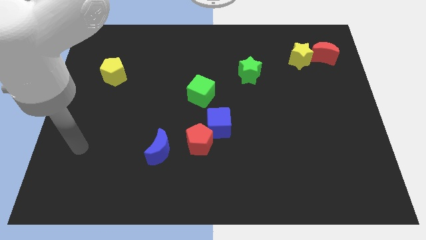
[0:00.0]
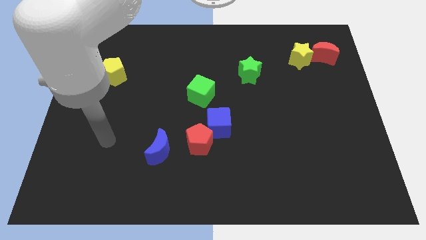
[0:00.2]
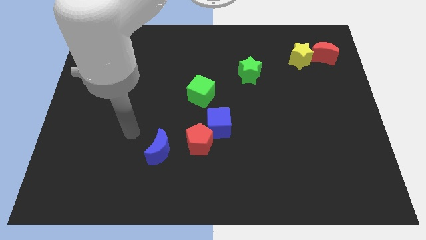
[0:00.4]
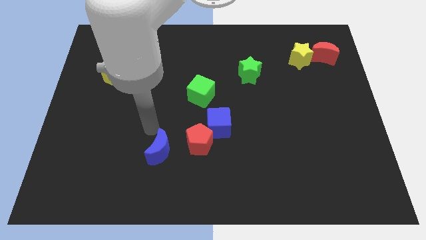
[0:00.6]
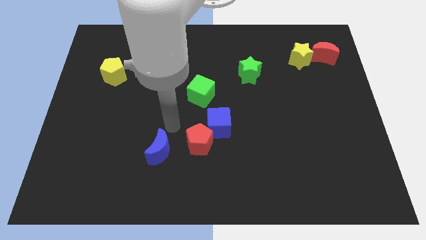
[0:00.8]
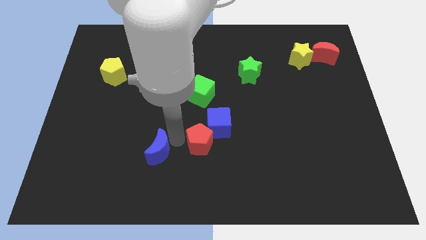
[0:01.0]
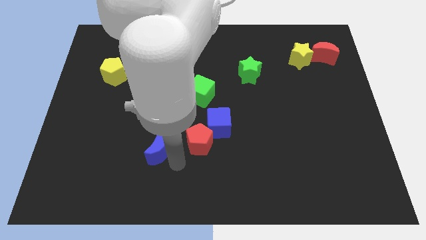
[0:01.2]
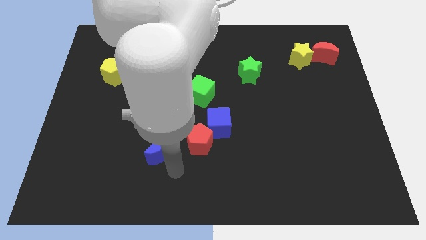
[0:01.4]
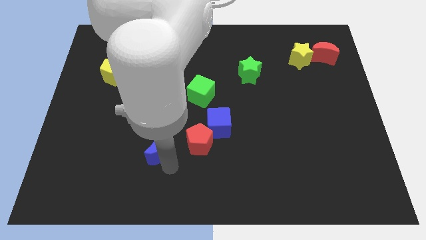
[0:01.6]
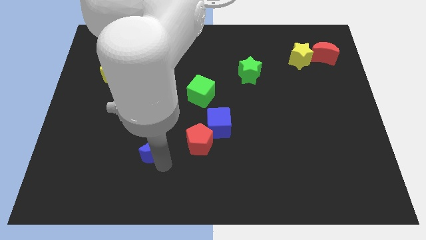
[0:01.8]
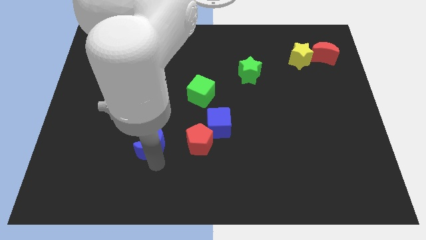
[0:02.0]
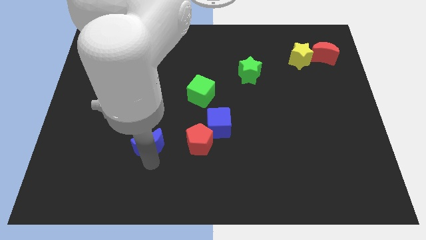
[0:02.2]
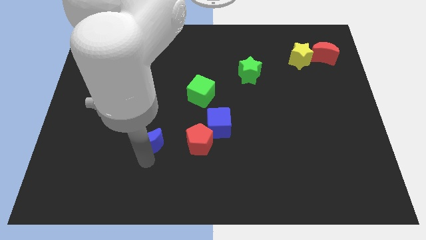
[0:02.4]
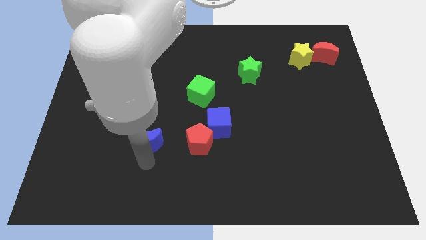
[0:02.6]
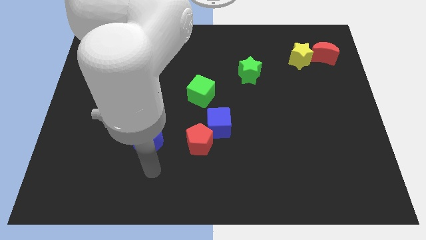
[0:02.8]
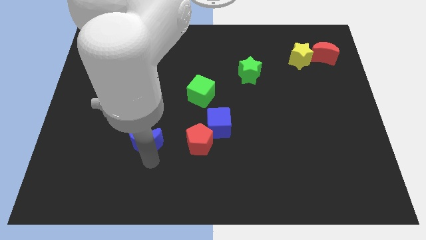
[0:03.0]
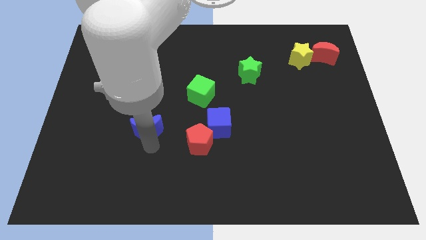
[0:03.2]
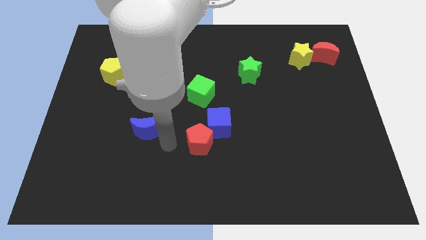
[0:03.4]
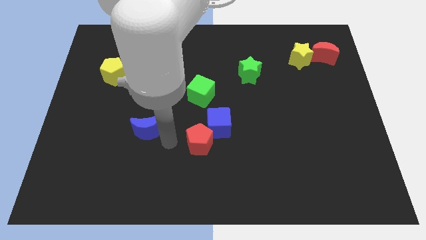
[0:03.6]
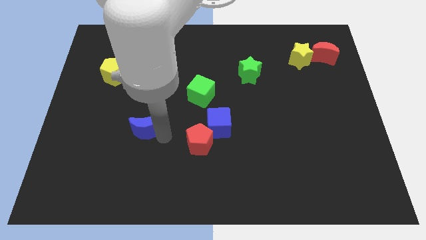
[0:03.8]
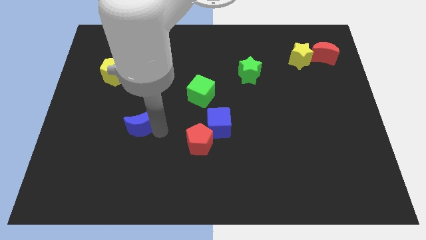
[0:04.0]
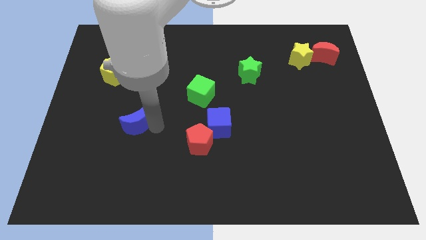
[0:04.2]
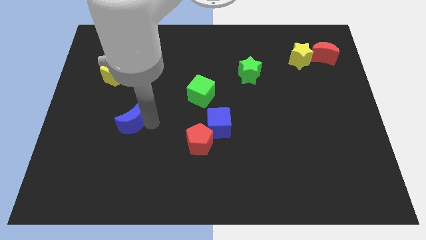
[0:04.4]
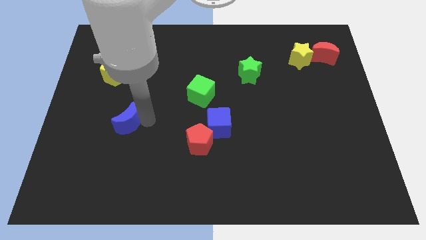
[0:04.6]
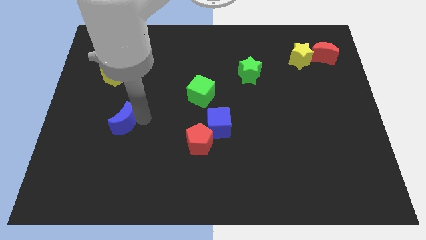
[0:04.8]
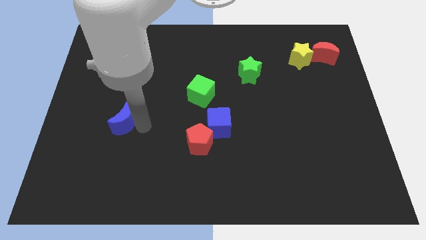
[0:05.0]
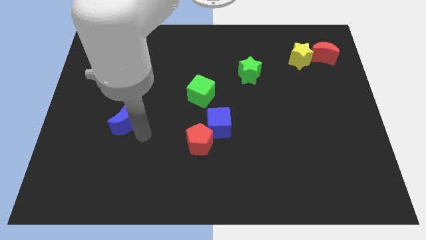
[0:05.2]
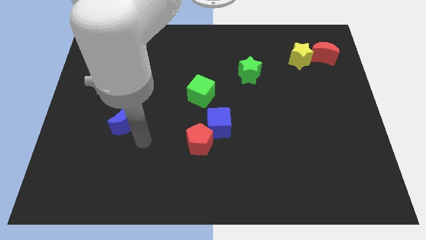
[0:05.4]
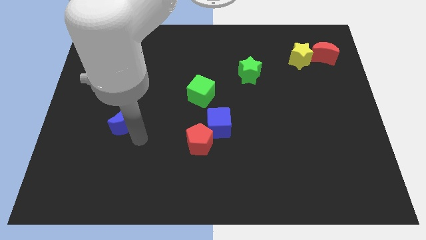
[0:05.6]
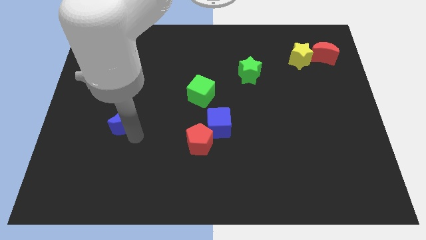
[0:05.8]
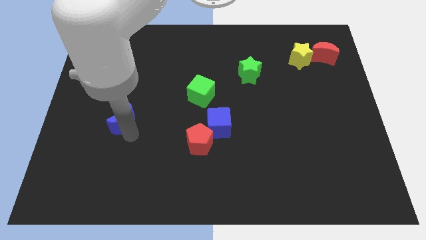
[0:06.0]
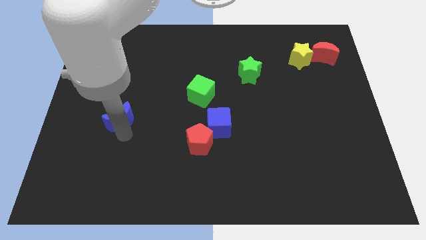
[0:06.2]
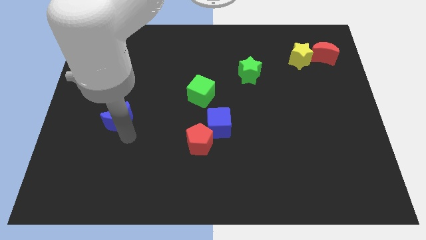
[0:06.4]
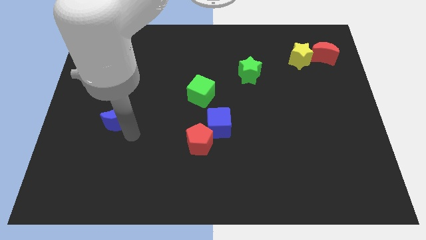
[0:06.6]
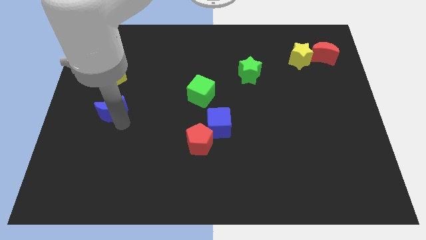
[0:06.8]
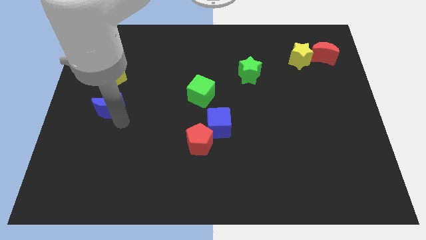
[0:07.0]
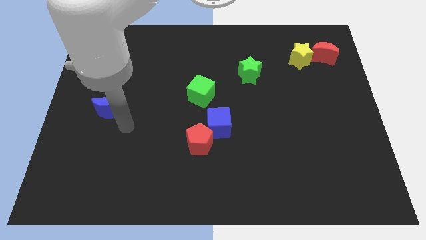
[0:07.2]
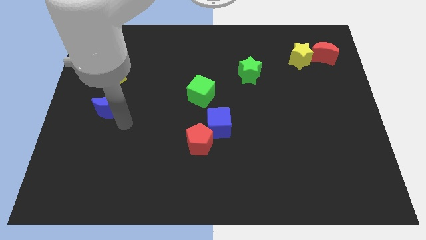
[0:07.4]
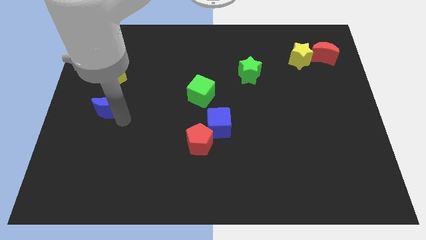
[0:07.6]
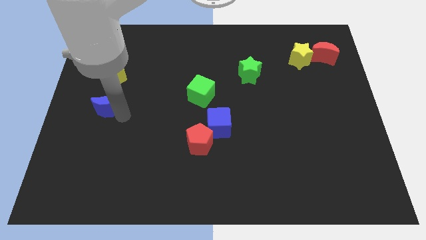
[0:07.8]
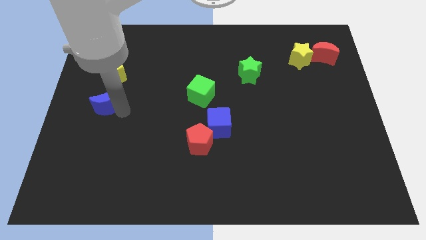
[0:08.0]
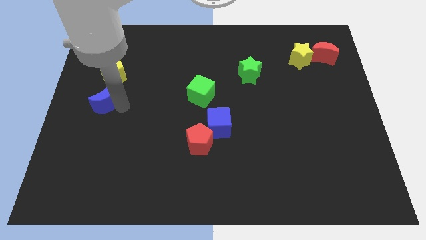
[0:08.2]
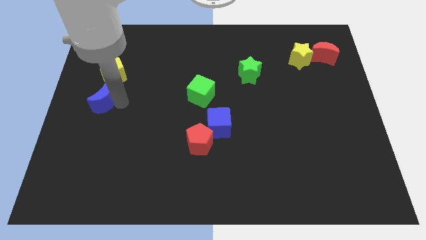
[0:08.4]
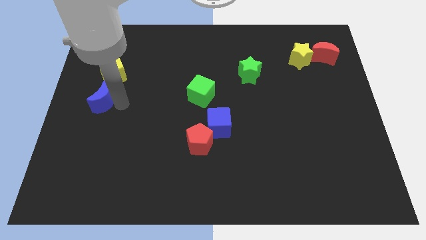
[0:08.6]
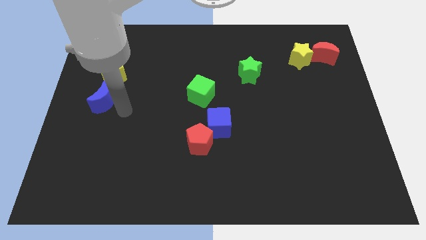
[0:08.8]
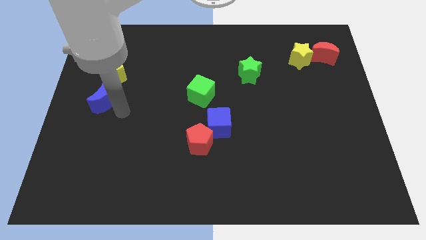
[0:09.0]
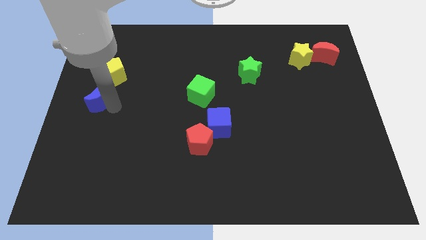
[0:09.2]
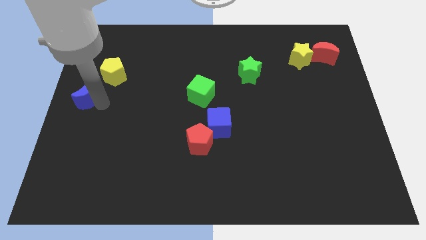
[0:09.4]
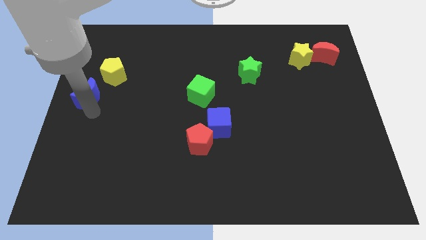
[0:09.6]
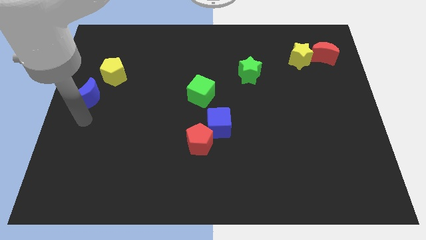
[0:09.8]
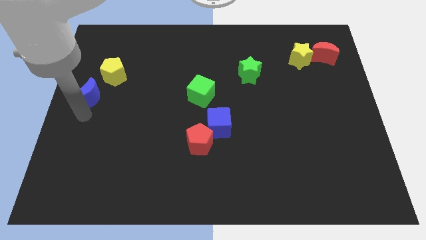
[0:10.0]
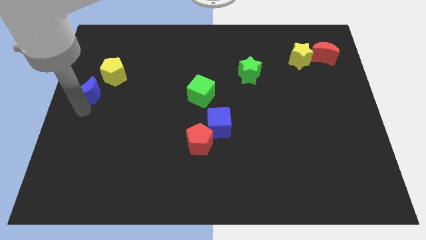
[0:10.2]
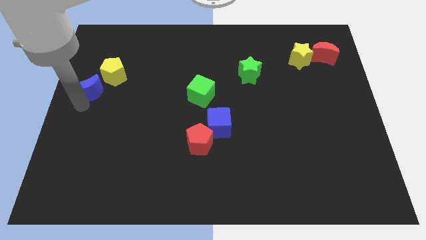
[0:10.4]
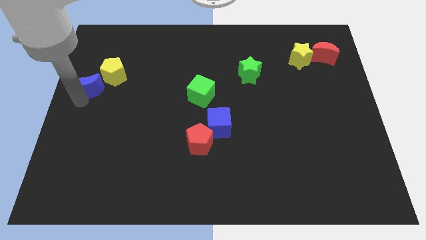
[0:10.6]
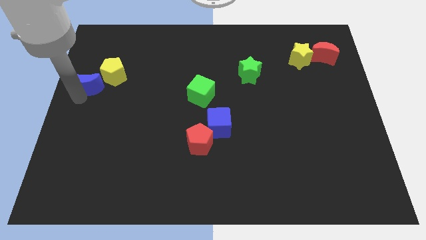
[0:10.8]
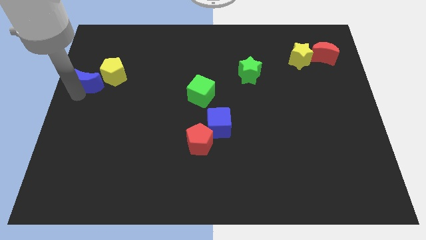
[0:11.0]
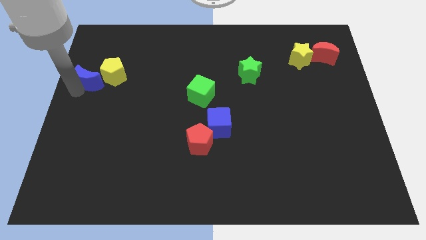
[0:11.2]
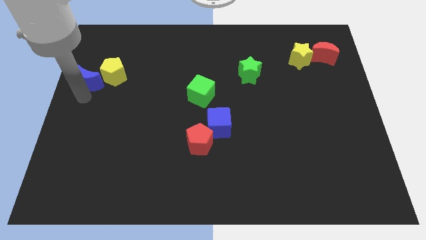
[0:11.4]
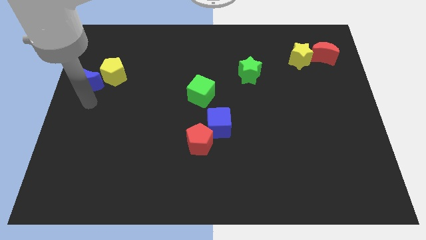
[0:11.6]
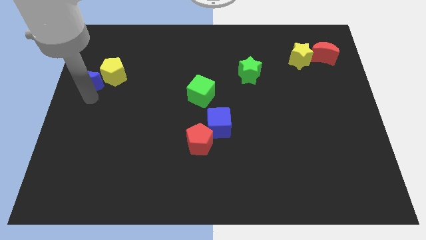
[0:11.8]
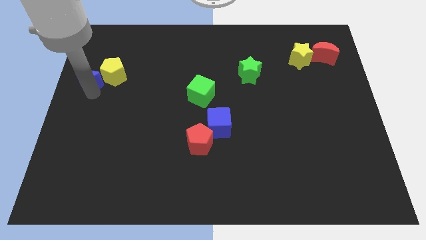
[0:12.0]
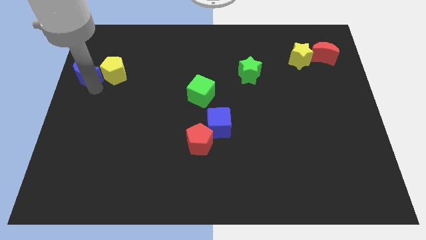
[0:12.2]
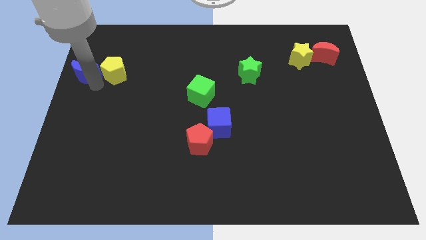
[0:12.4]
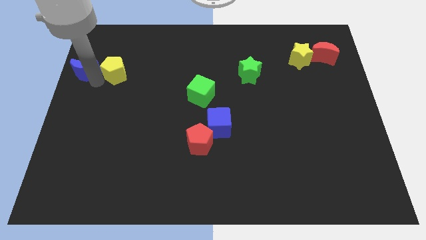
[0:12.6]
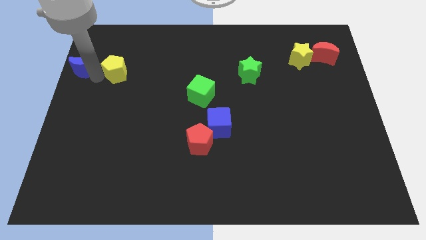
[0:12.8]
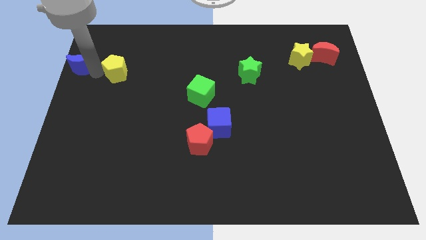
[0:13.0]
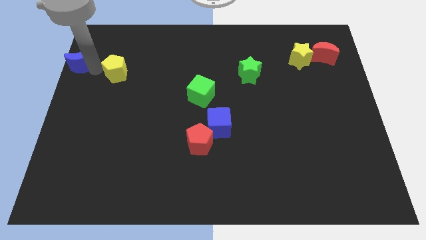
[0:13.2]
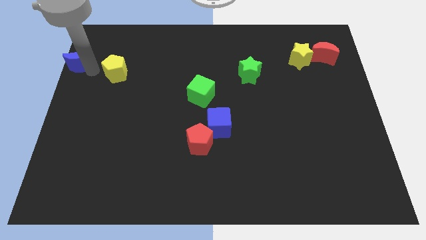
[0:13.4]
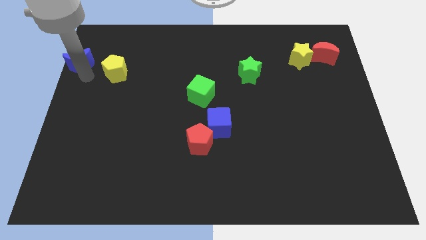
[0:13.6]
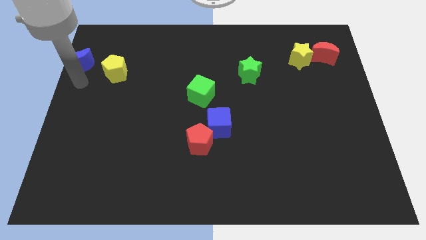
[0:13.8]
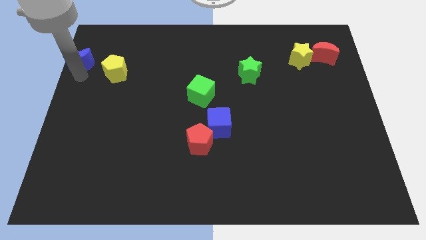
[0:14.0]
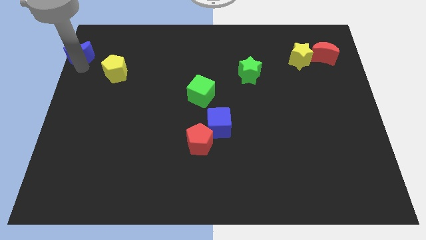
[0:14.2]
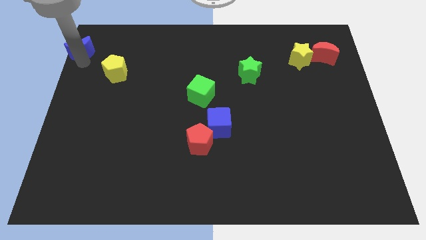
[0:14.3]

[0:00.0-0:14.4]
move the blue moon to the top left
